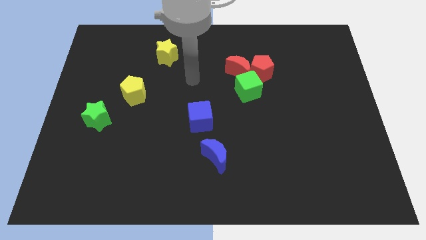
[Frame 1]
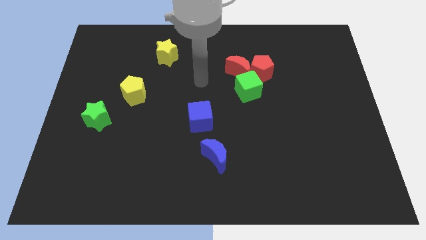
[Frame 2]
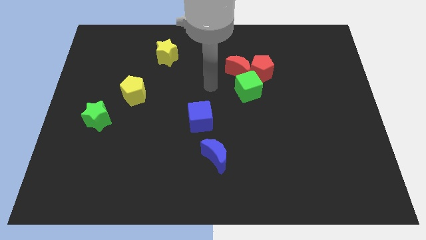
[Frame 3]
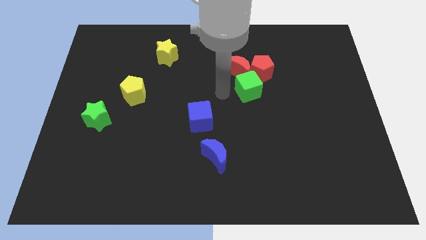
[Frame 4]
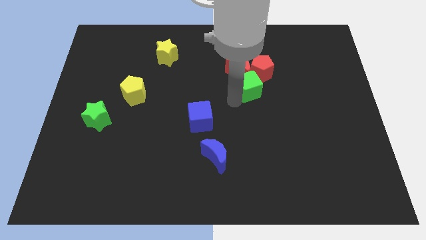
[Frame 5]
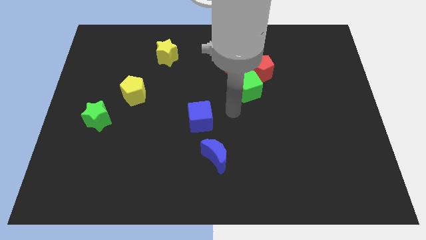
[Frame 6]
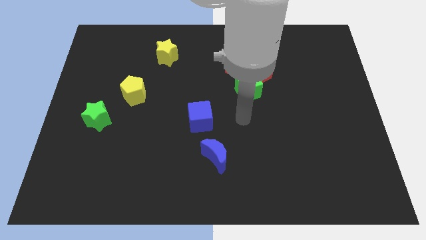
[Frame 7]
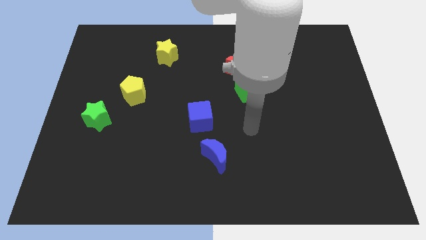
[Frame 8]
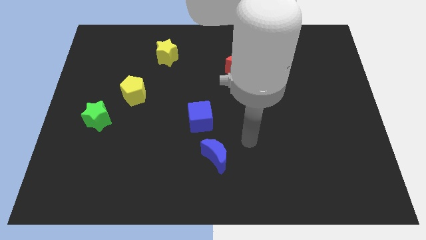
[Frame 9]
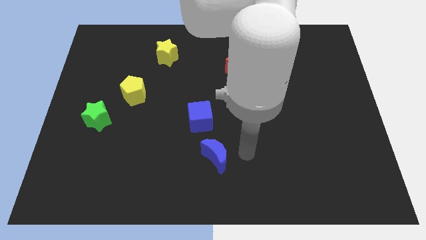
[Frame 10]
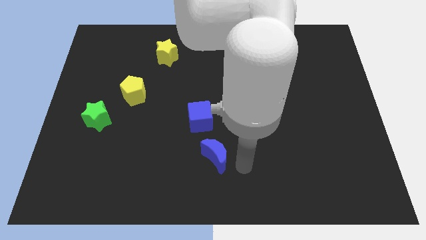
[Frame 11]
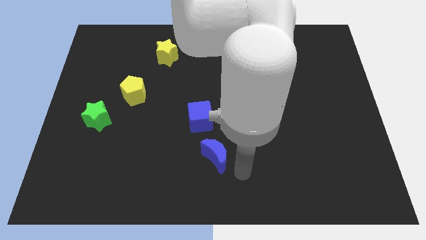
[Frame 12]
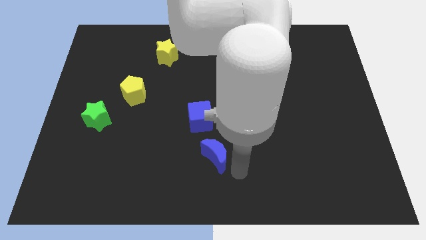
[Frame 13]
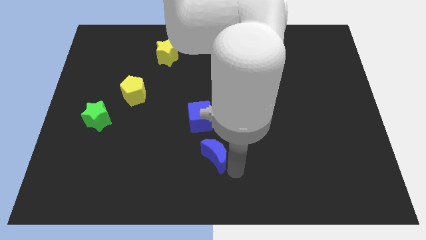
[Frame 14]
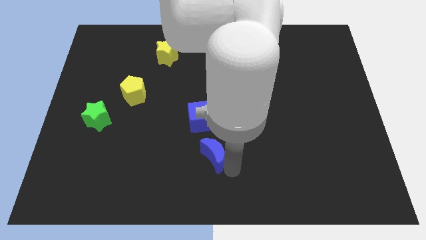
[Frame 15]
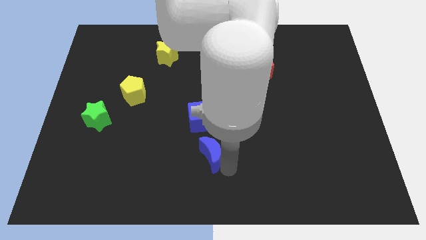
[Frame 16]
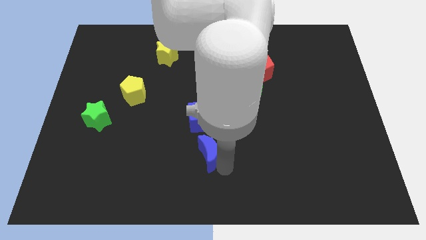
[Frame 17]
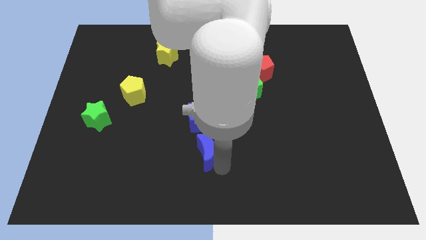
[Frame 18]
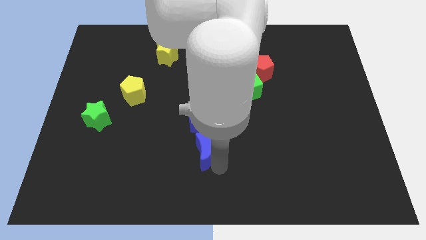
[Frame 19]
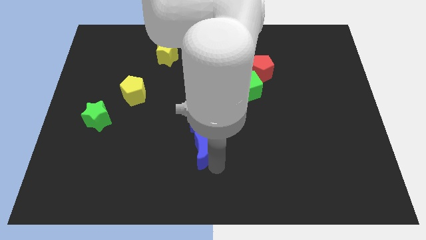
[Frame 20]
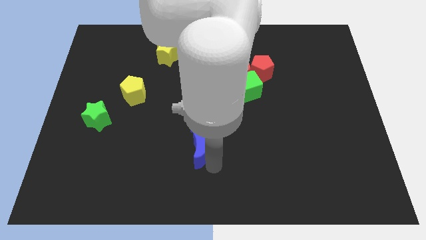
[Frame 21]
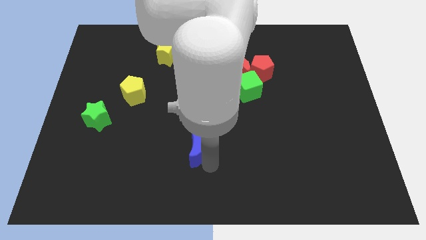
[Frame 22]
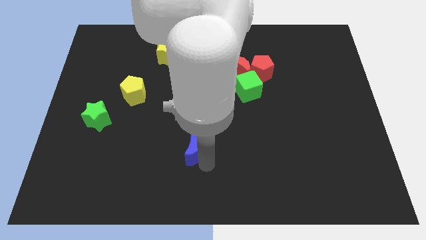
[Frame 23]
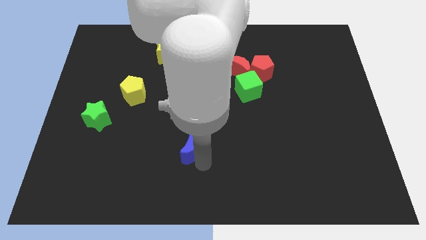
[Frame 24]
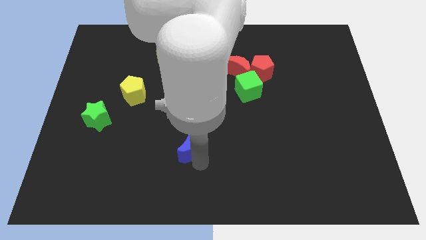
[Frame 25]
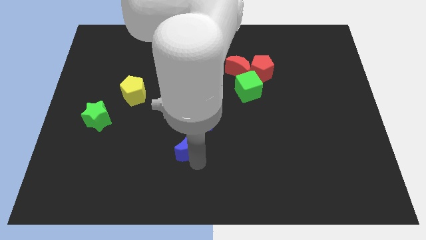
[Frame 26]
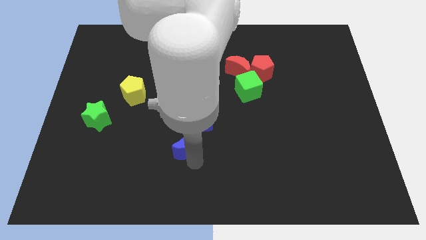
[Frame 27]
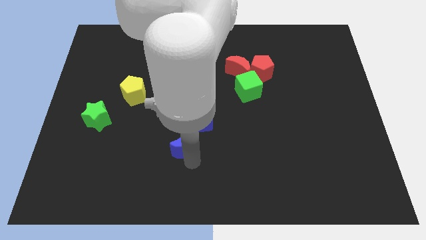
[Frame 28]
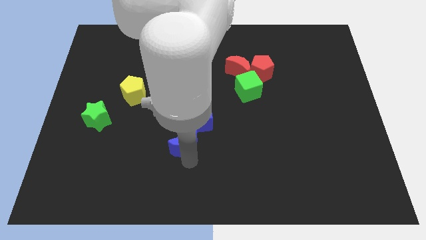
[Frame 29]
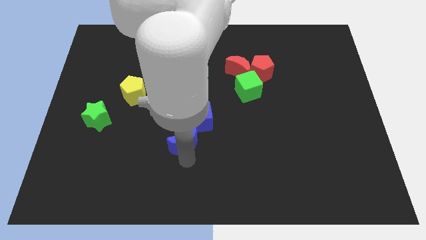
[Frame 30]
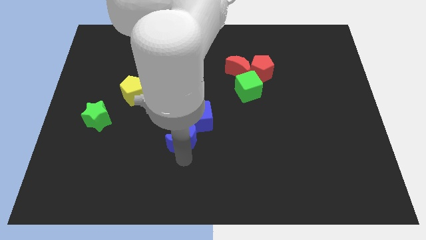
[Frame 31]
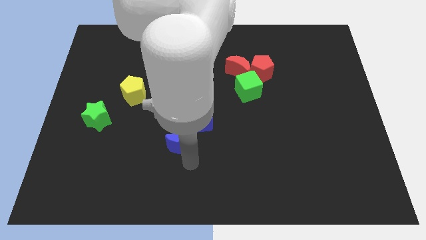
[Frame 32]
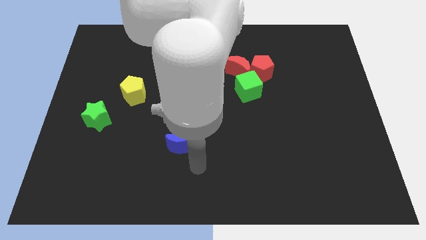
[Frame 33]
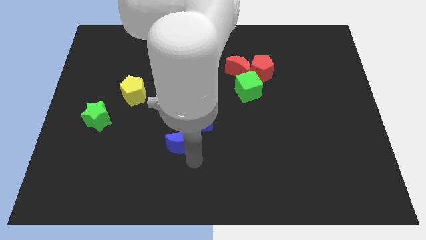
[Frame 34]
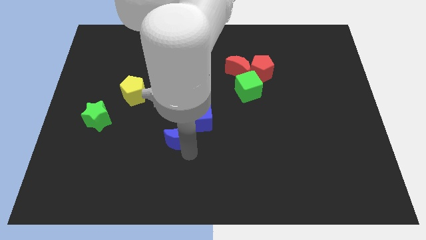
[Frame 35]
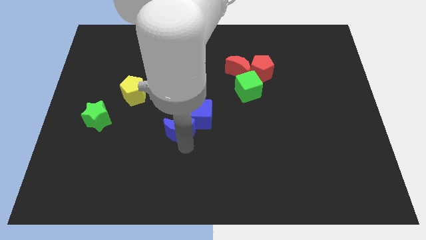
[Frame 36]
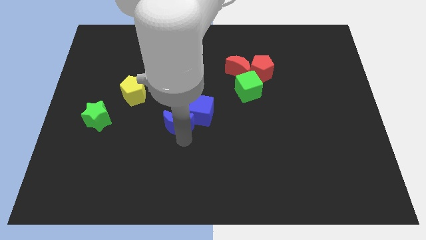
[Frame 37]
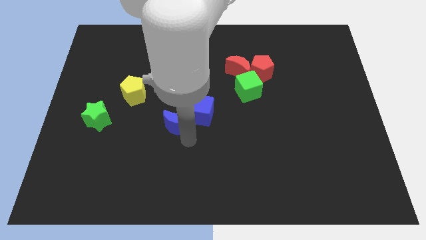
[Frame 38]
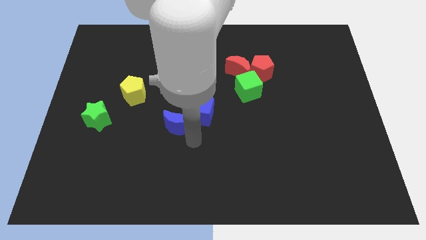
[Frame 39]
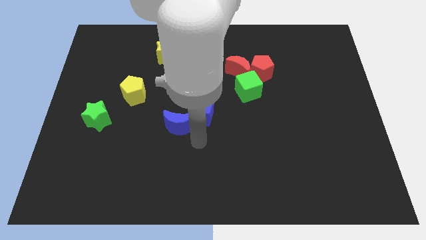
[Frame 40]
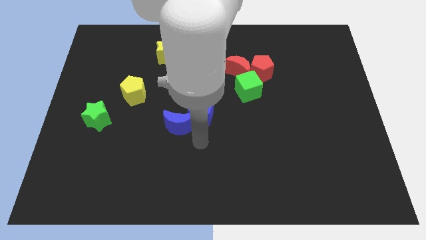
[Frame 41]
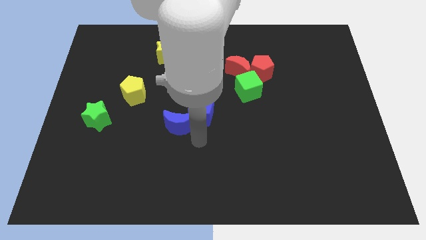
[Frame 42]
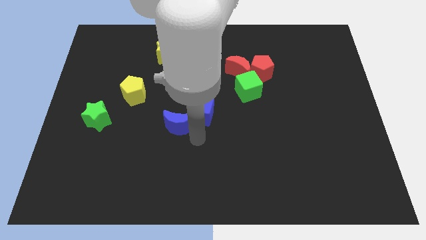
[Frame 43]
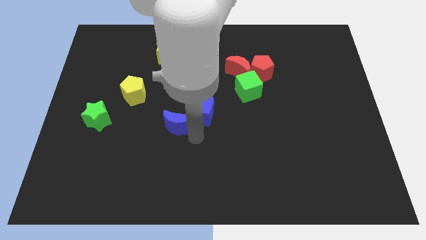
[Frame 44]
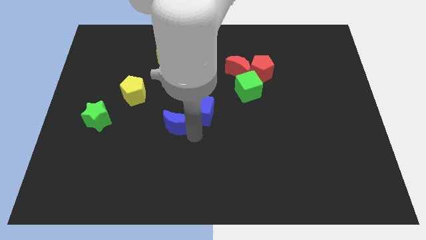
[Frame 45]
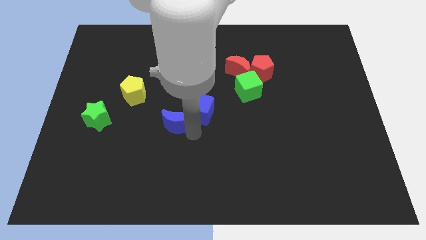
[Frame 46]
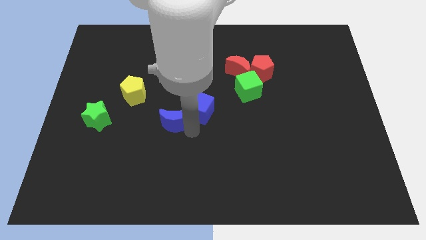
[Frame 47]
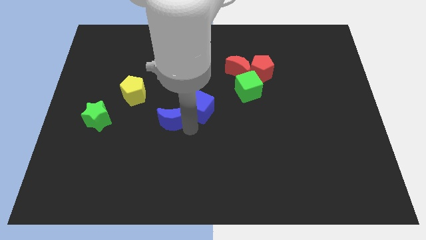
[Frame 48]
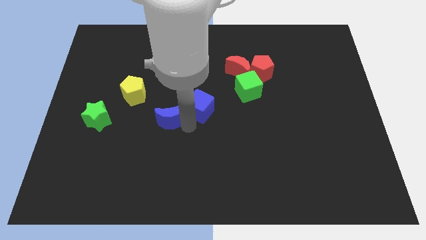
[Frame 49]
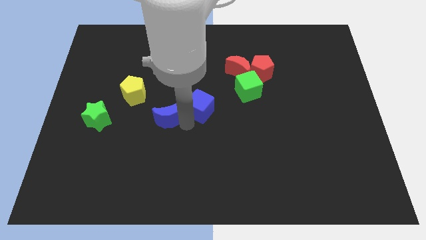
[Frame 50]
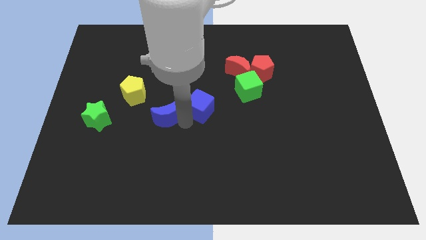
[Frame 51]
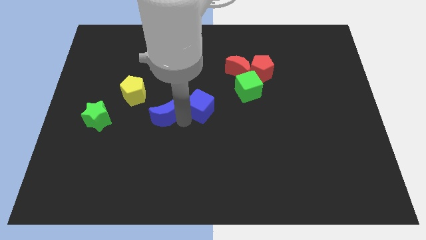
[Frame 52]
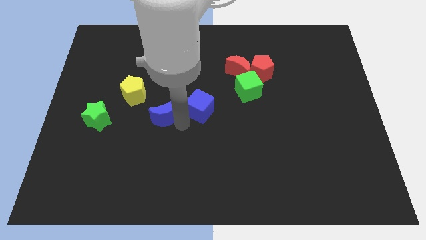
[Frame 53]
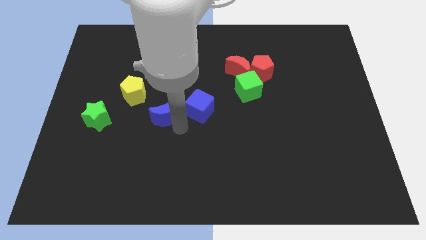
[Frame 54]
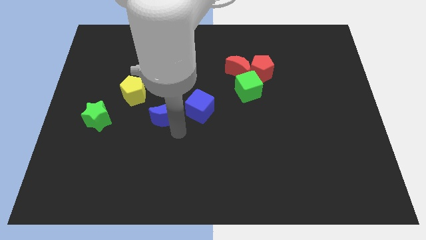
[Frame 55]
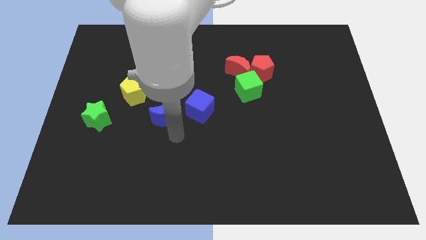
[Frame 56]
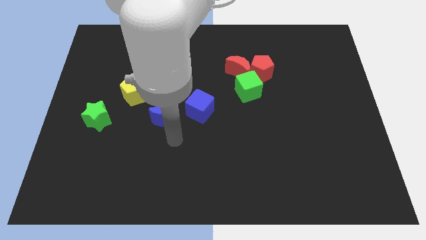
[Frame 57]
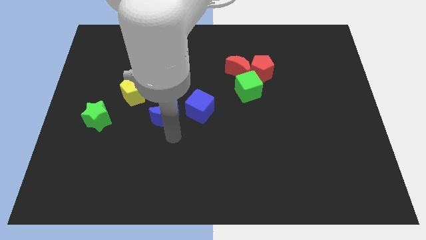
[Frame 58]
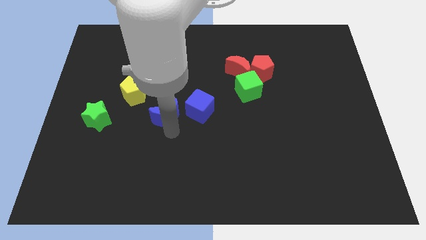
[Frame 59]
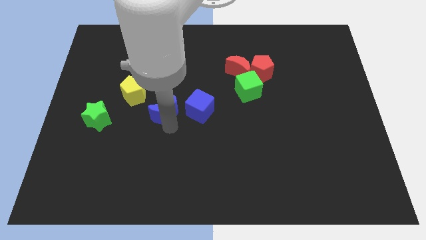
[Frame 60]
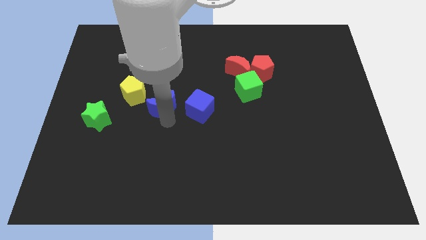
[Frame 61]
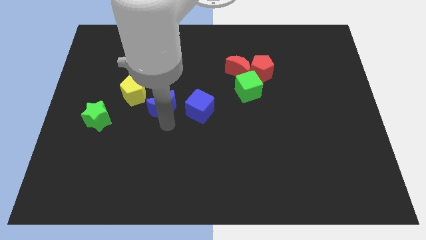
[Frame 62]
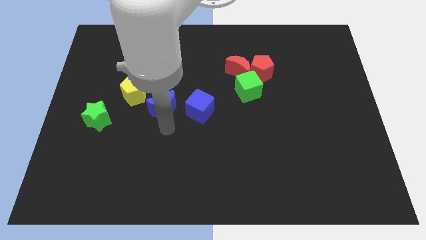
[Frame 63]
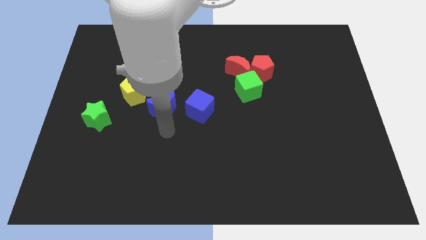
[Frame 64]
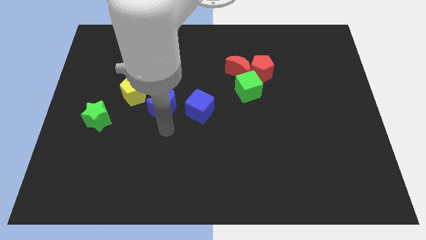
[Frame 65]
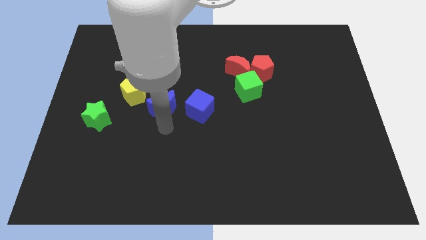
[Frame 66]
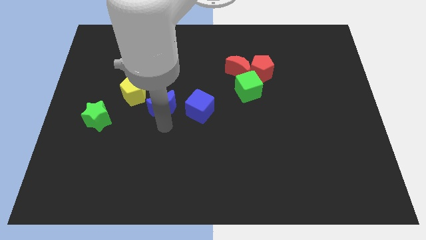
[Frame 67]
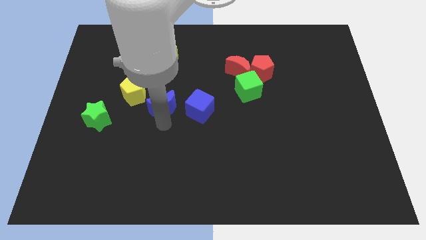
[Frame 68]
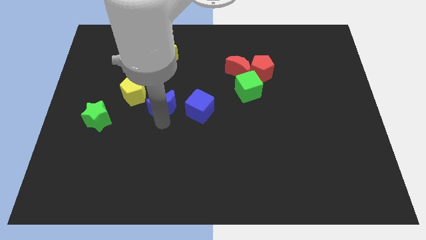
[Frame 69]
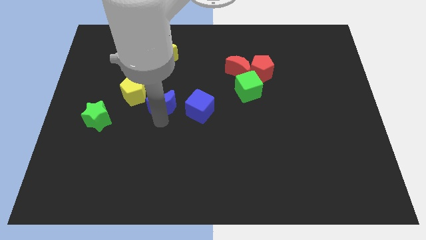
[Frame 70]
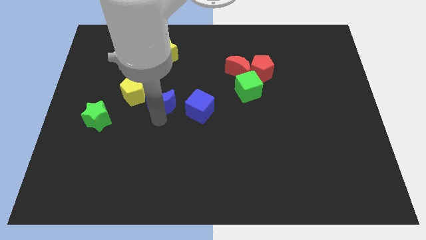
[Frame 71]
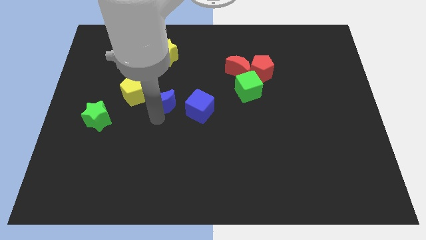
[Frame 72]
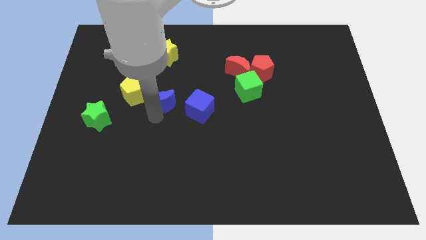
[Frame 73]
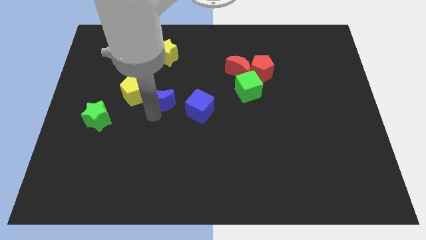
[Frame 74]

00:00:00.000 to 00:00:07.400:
slide the blue moon upwards and left

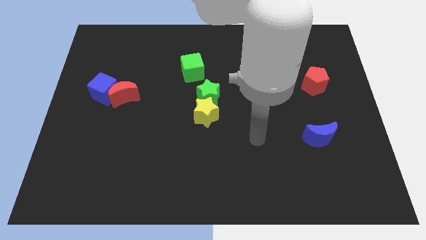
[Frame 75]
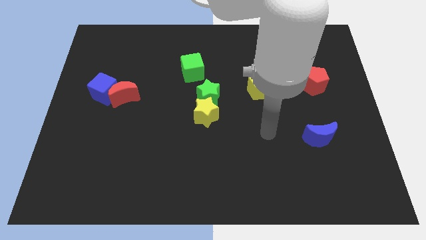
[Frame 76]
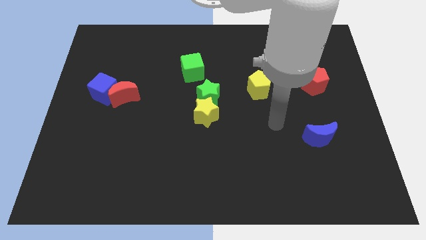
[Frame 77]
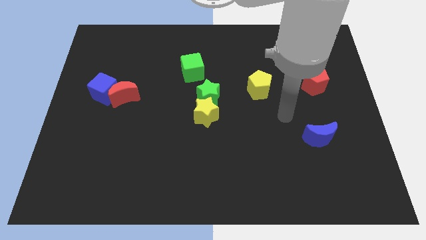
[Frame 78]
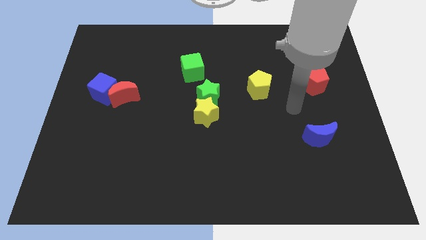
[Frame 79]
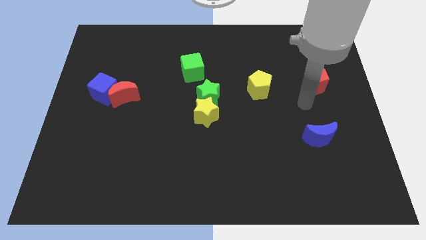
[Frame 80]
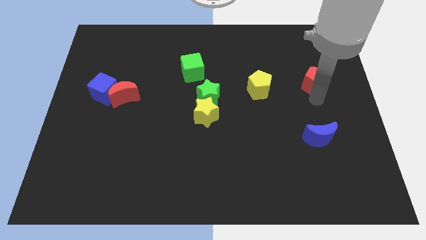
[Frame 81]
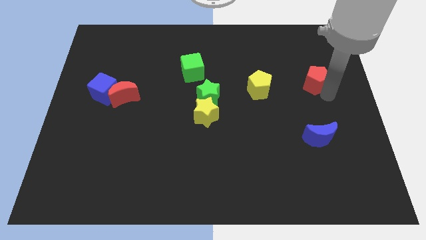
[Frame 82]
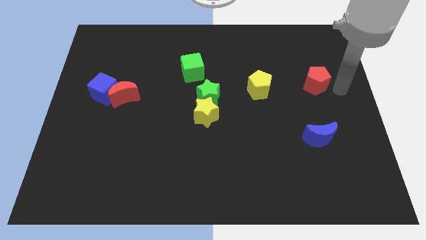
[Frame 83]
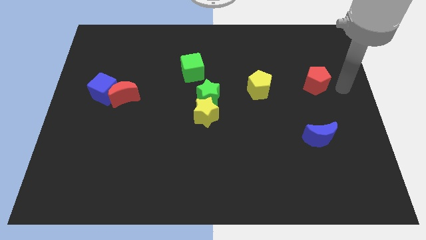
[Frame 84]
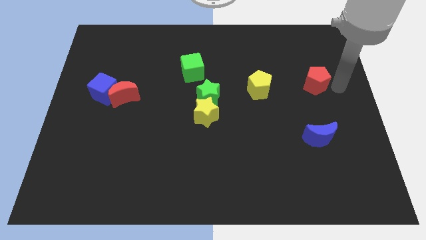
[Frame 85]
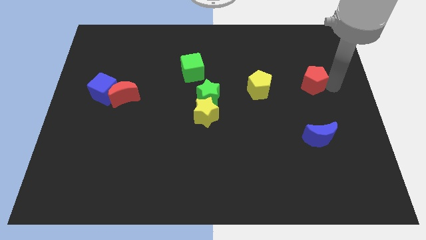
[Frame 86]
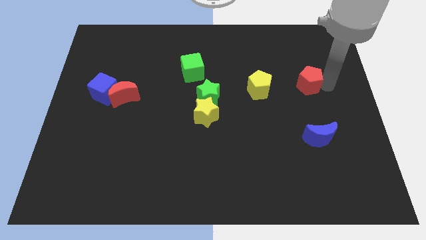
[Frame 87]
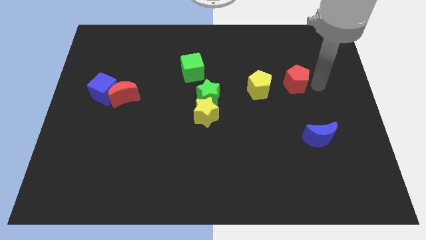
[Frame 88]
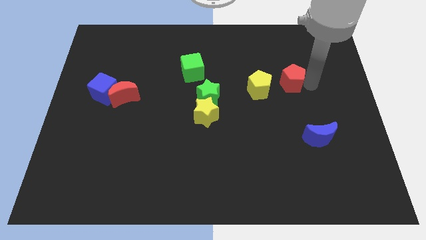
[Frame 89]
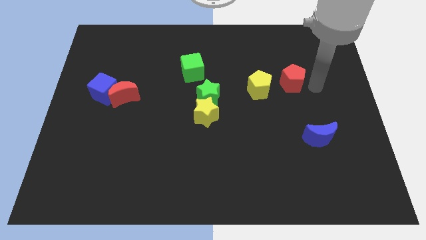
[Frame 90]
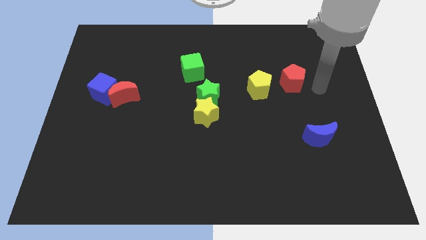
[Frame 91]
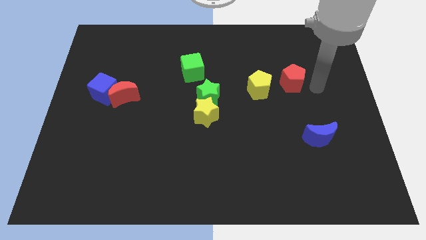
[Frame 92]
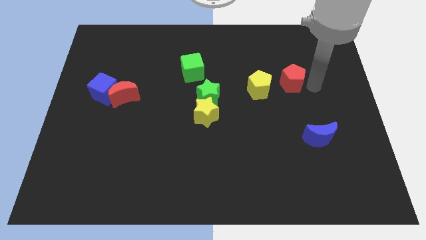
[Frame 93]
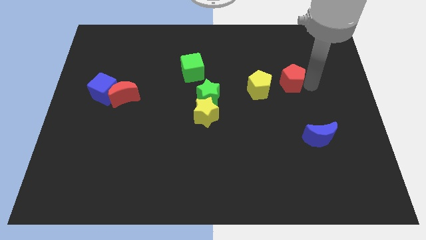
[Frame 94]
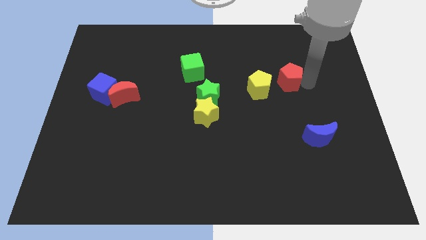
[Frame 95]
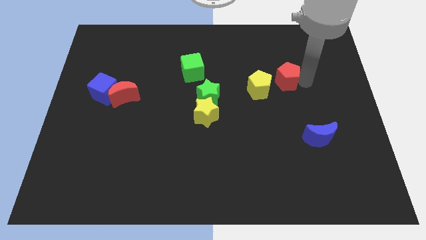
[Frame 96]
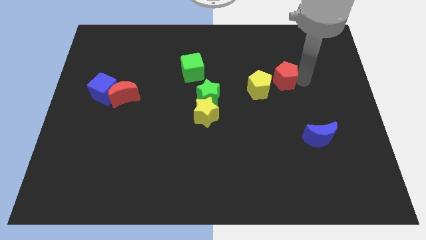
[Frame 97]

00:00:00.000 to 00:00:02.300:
slightly push the red pentagon left
